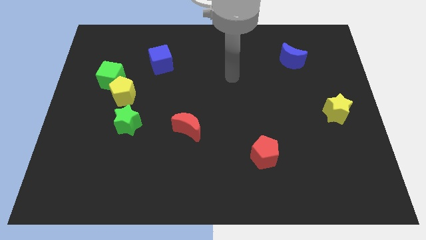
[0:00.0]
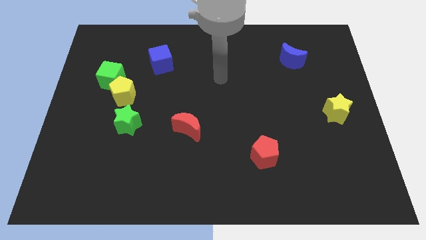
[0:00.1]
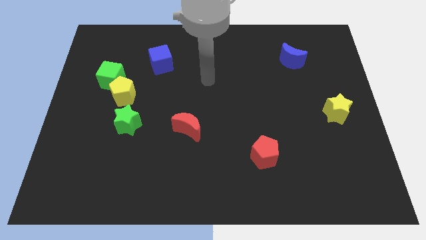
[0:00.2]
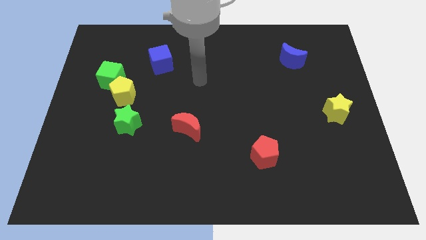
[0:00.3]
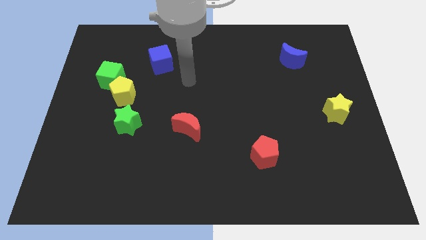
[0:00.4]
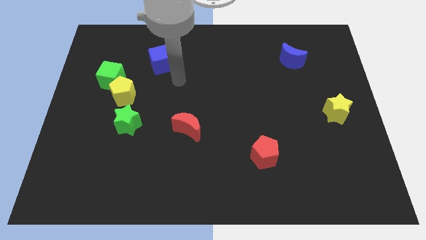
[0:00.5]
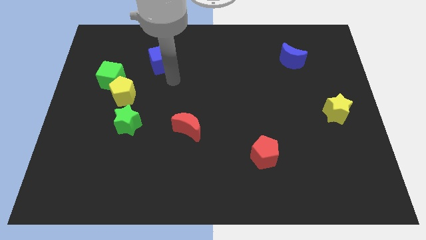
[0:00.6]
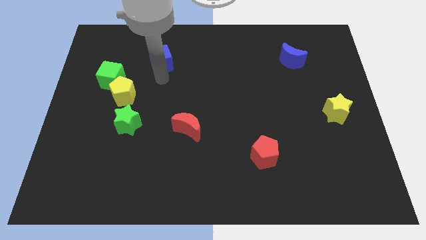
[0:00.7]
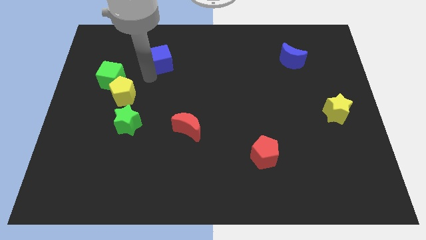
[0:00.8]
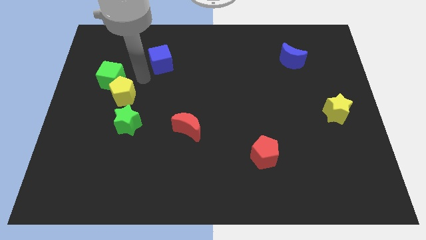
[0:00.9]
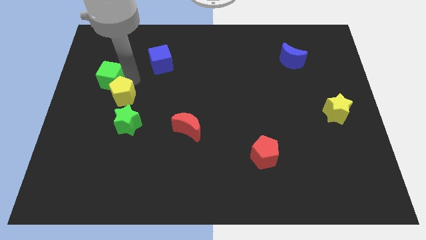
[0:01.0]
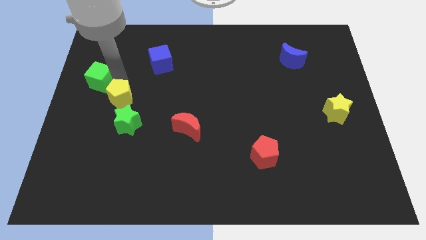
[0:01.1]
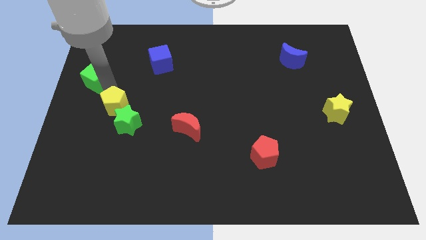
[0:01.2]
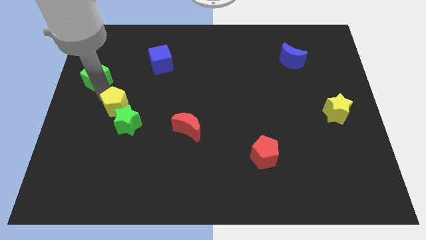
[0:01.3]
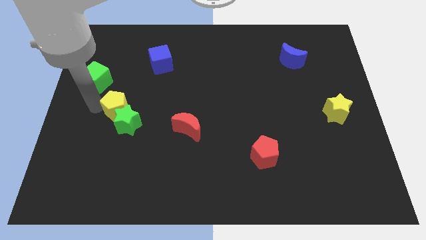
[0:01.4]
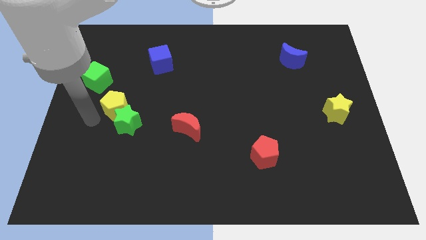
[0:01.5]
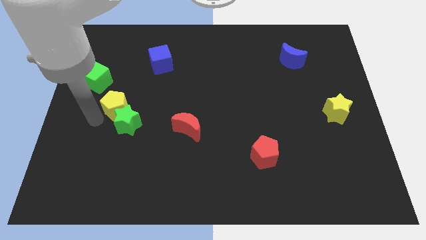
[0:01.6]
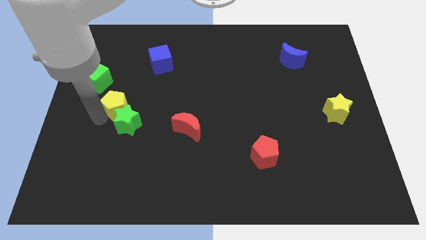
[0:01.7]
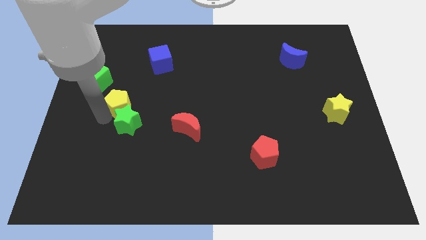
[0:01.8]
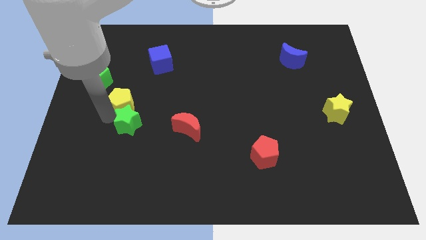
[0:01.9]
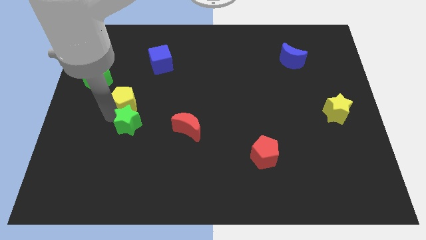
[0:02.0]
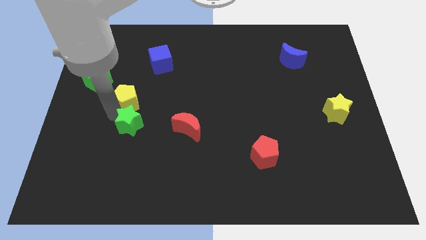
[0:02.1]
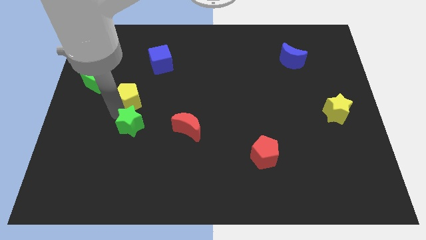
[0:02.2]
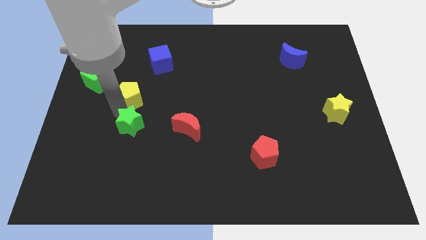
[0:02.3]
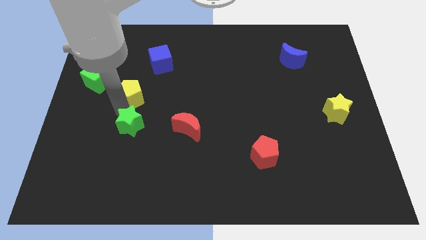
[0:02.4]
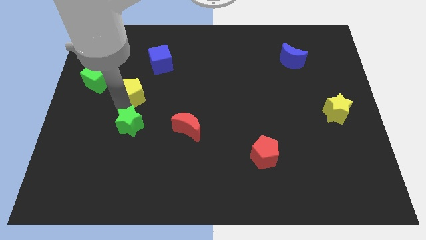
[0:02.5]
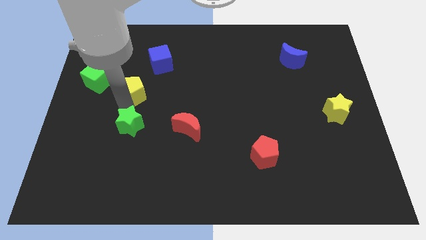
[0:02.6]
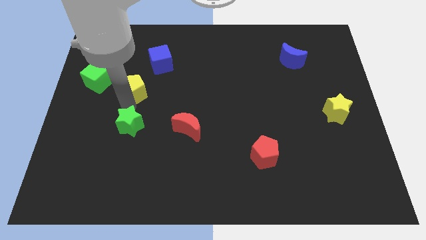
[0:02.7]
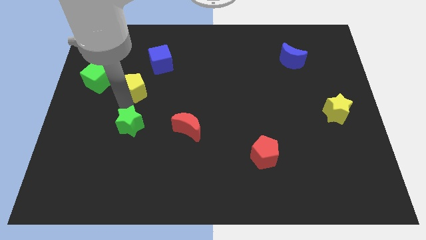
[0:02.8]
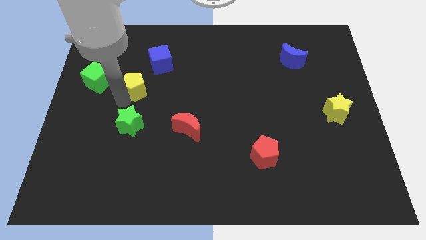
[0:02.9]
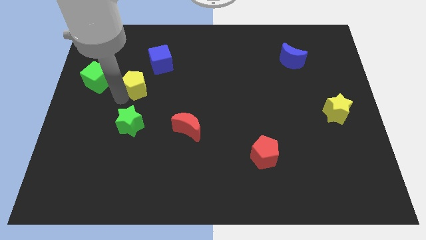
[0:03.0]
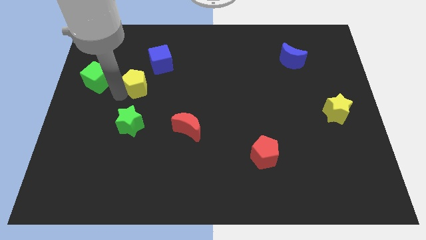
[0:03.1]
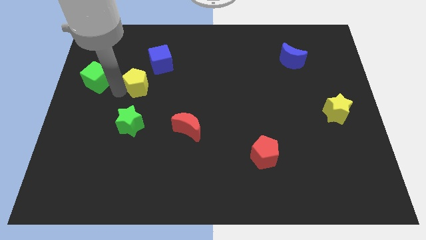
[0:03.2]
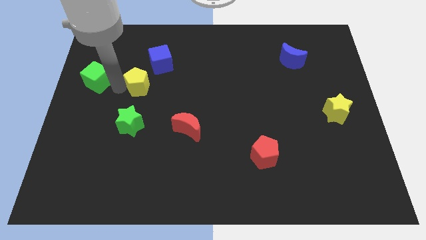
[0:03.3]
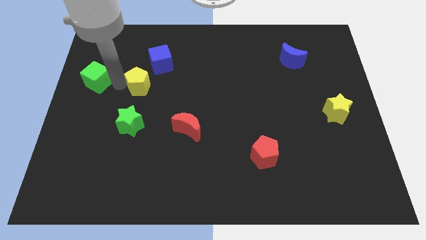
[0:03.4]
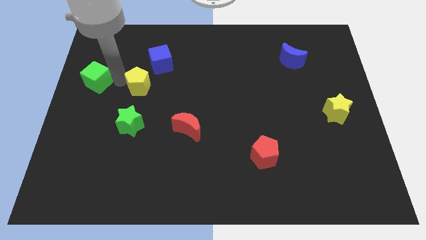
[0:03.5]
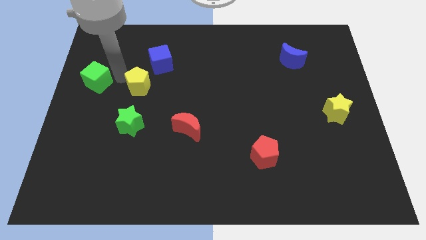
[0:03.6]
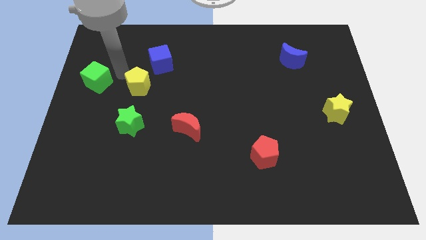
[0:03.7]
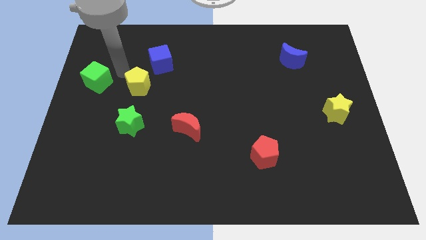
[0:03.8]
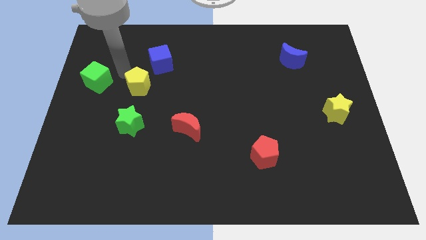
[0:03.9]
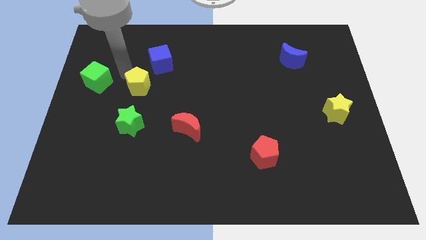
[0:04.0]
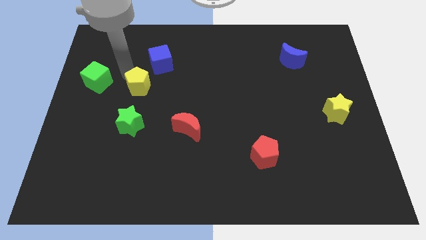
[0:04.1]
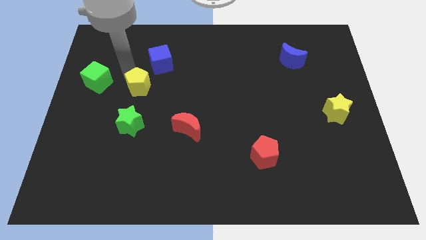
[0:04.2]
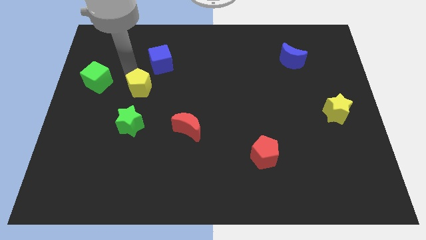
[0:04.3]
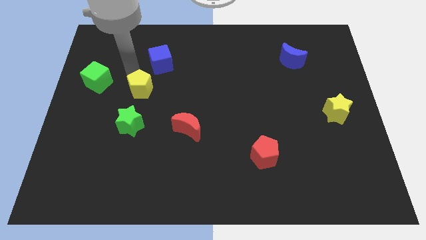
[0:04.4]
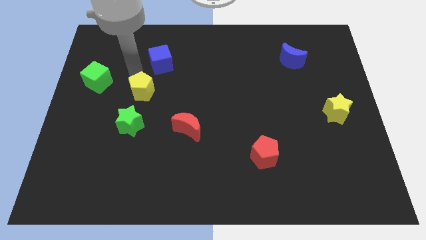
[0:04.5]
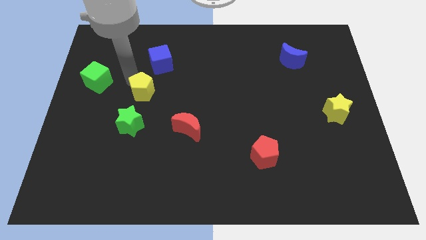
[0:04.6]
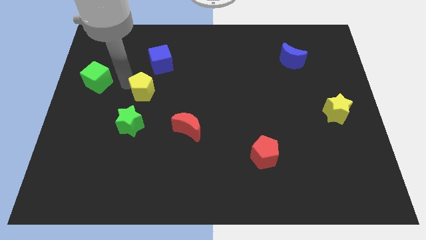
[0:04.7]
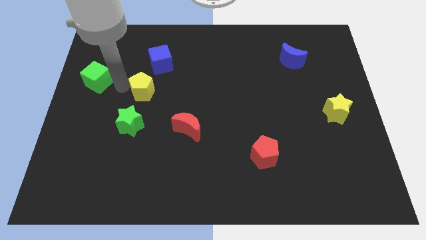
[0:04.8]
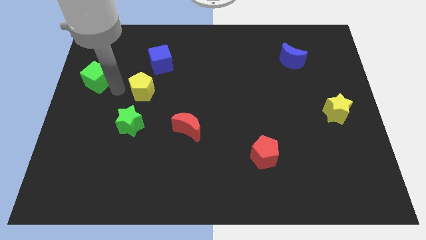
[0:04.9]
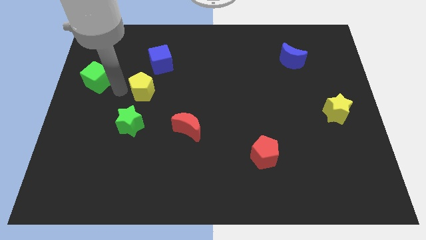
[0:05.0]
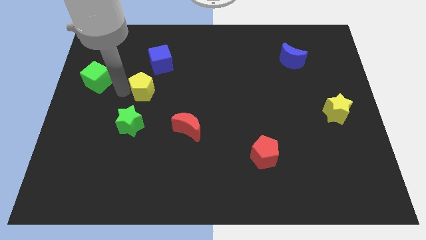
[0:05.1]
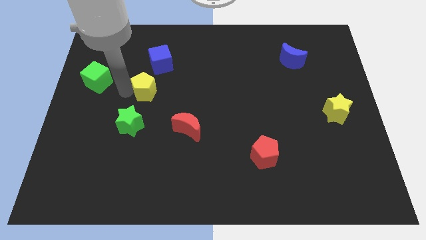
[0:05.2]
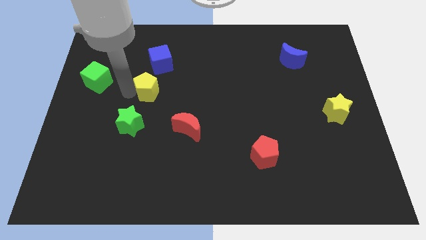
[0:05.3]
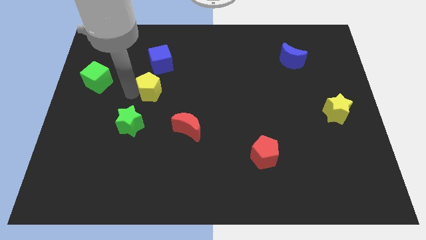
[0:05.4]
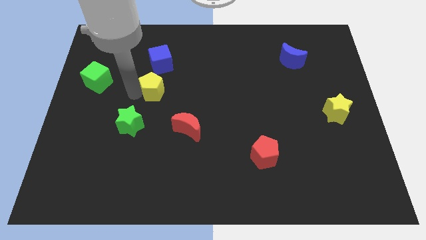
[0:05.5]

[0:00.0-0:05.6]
move the yellow pentagon to the right somewhat

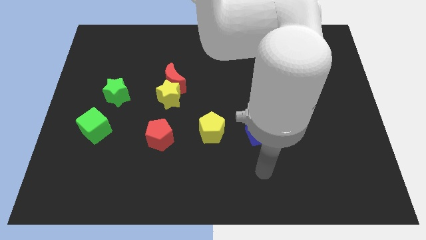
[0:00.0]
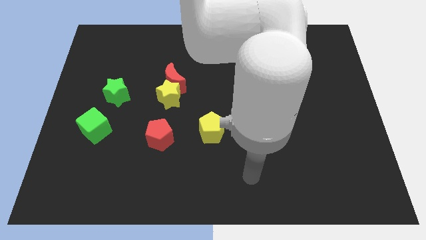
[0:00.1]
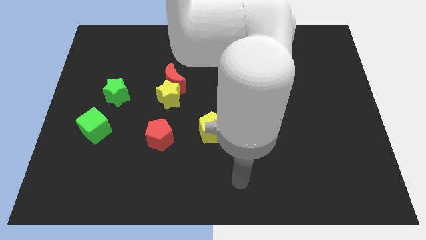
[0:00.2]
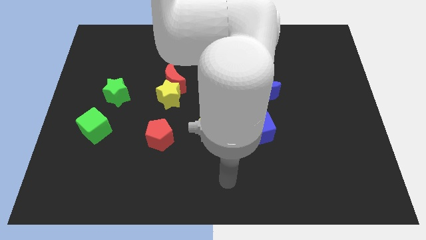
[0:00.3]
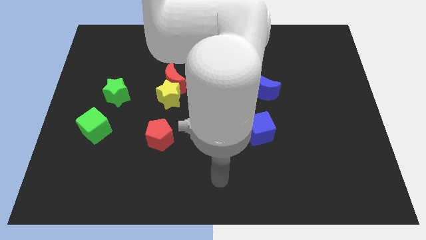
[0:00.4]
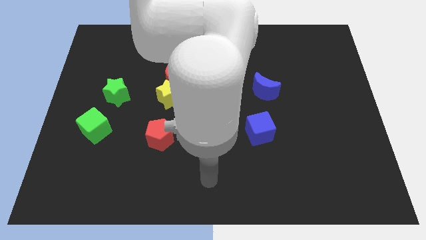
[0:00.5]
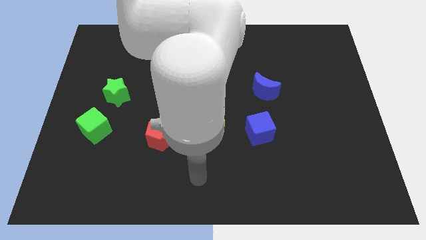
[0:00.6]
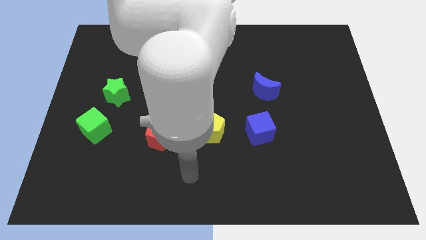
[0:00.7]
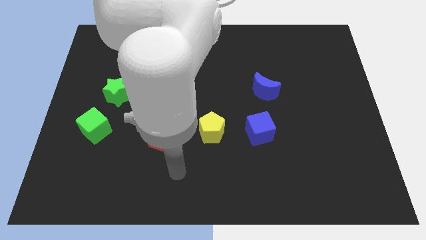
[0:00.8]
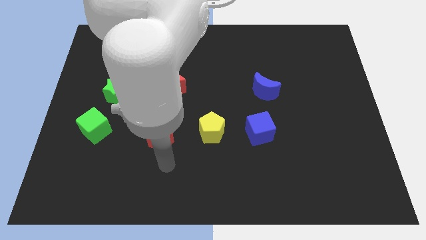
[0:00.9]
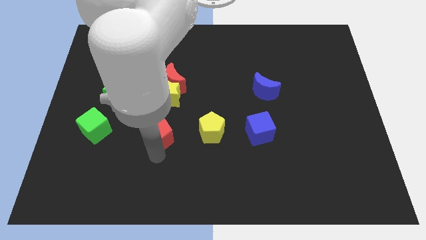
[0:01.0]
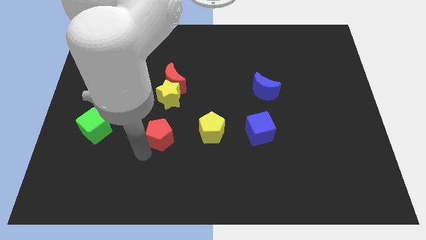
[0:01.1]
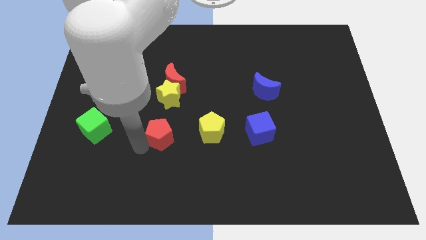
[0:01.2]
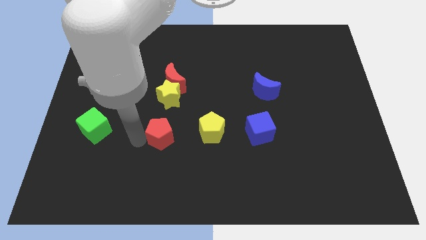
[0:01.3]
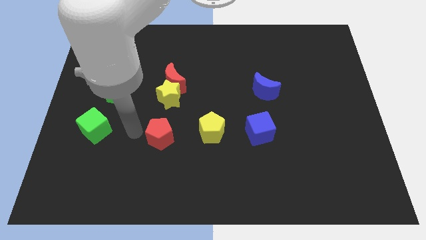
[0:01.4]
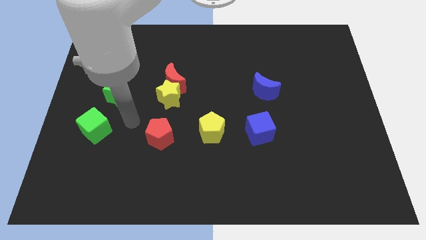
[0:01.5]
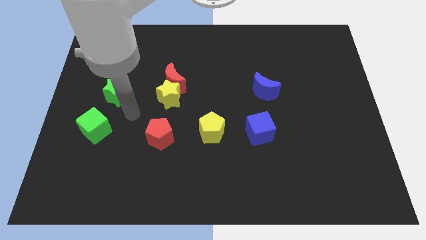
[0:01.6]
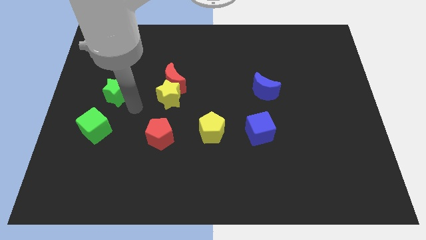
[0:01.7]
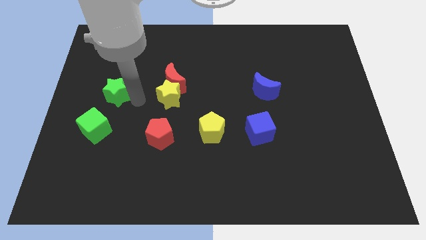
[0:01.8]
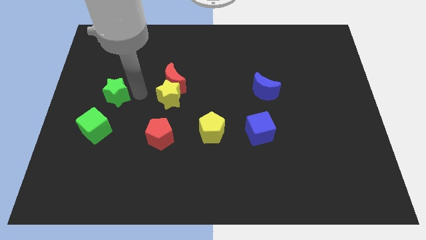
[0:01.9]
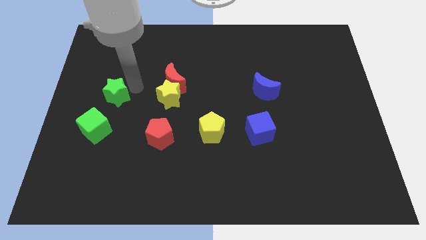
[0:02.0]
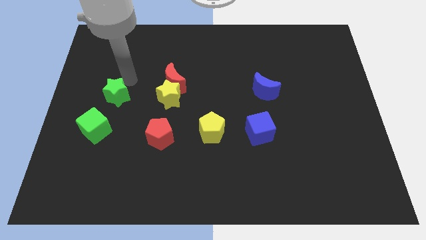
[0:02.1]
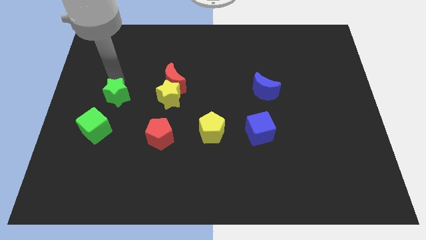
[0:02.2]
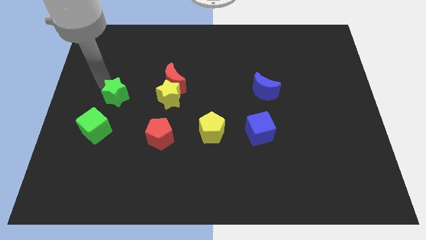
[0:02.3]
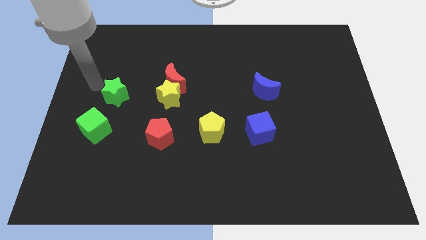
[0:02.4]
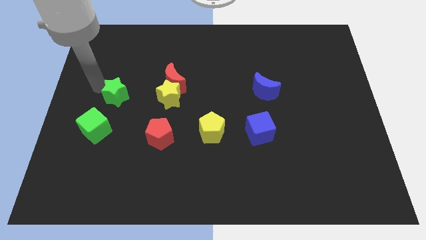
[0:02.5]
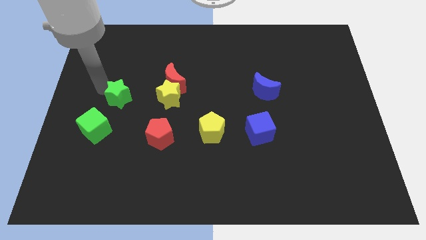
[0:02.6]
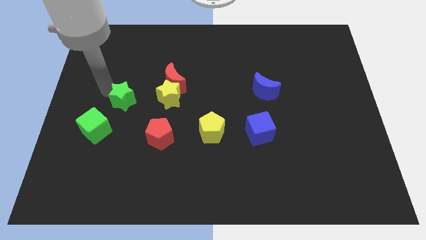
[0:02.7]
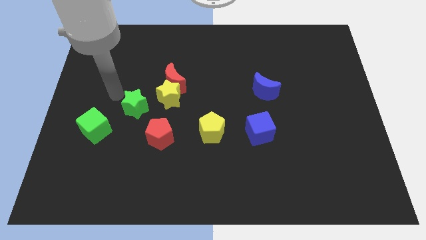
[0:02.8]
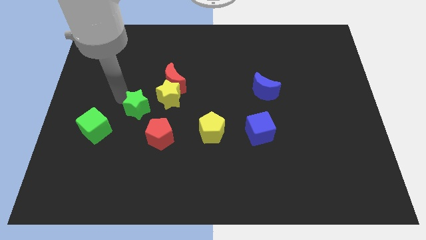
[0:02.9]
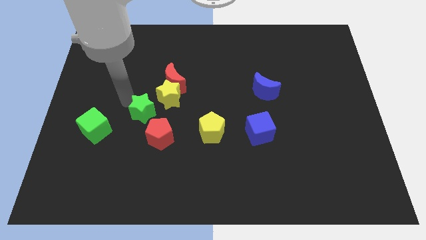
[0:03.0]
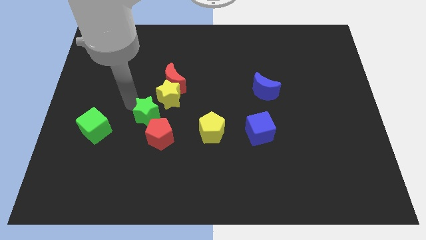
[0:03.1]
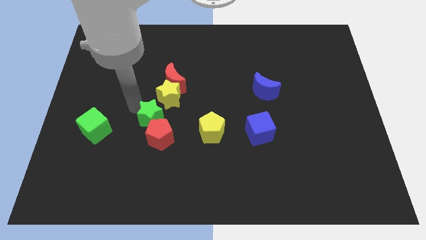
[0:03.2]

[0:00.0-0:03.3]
move the green star right a little
